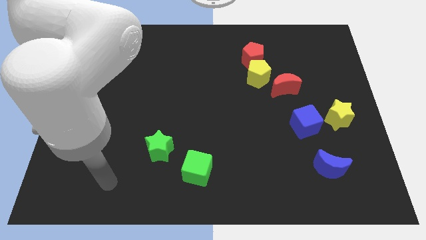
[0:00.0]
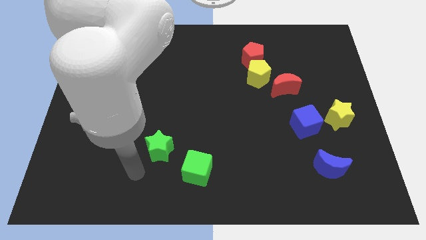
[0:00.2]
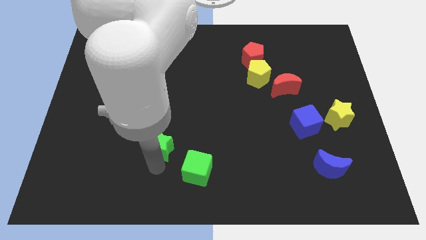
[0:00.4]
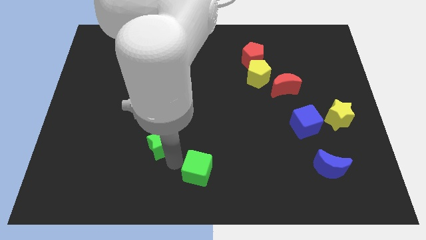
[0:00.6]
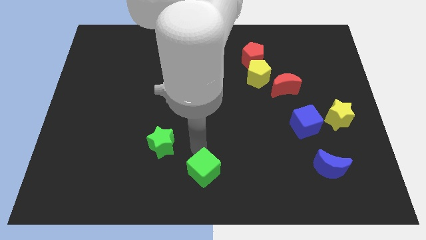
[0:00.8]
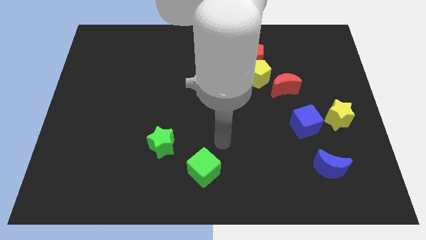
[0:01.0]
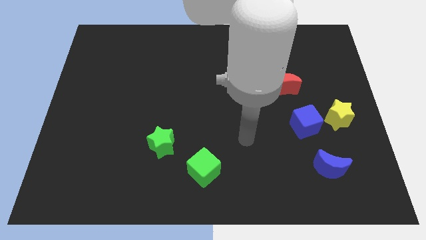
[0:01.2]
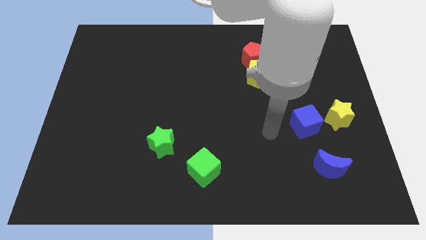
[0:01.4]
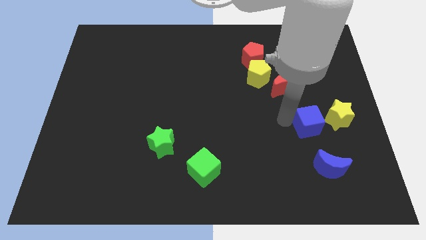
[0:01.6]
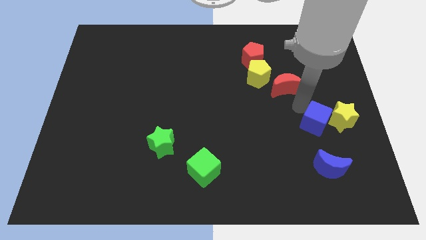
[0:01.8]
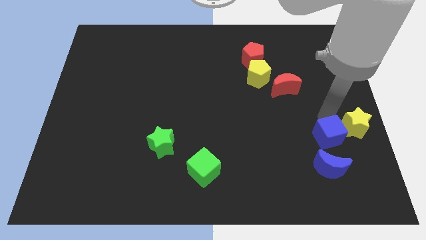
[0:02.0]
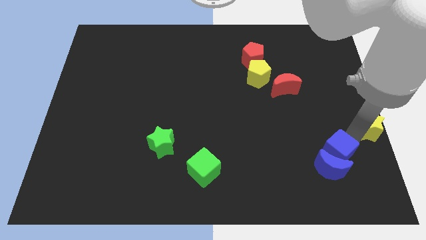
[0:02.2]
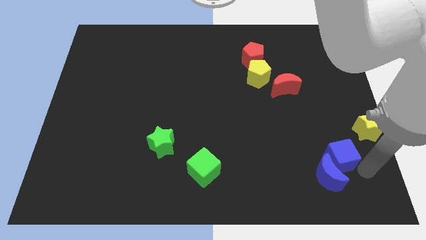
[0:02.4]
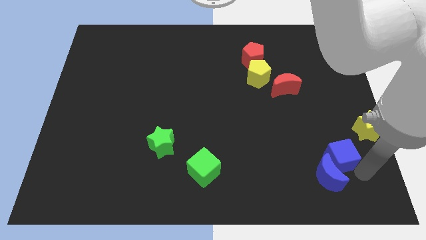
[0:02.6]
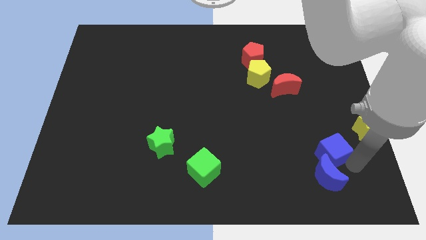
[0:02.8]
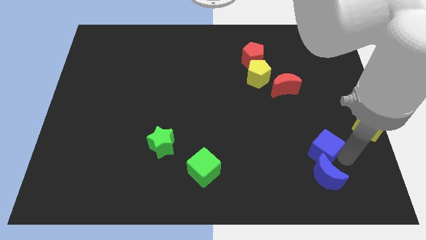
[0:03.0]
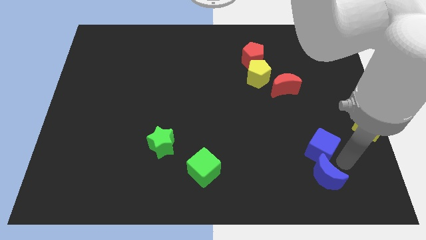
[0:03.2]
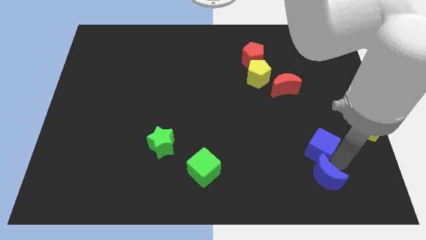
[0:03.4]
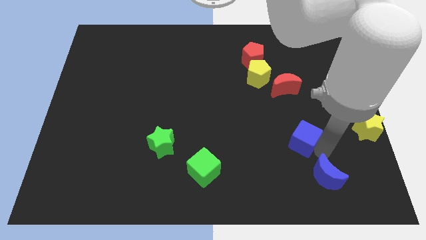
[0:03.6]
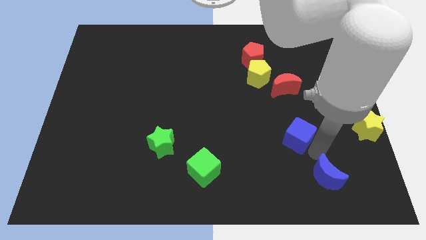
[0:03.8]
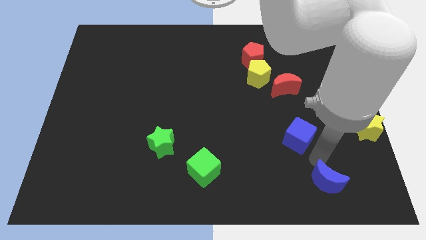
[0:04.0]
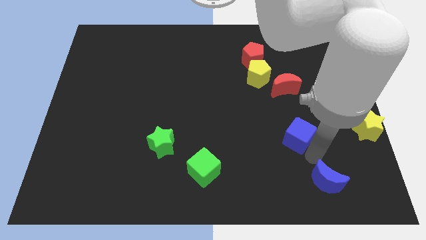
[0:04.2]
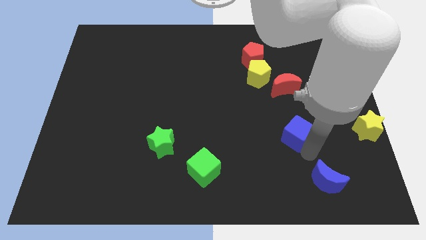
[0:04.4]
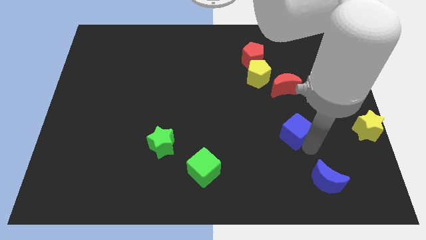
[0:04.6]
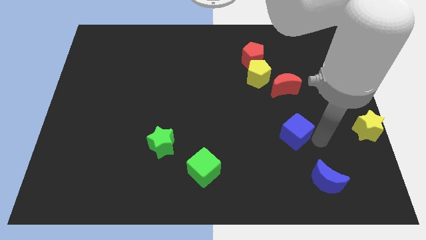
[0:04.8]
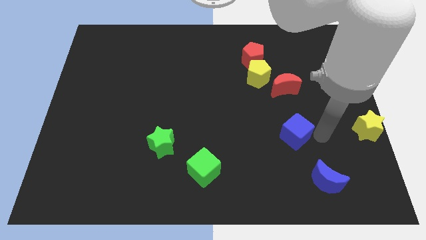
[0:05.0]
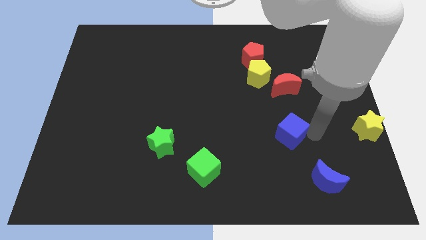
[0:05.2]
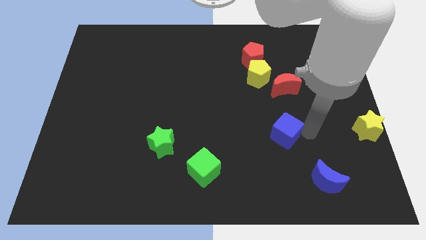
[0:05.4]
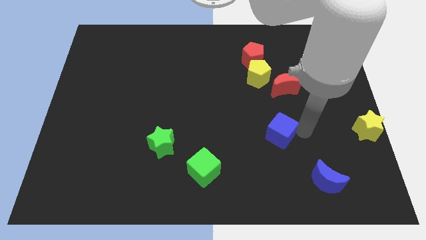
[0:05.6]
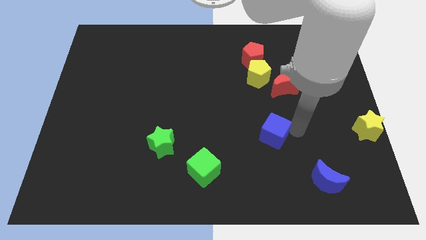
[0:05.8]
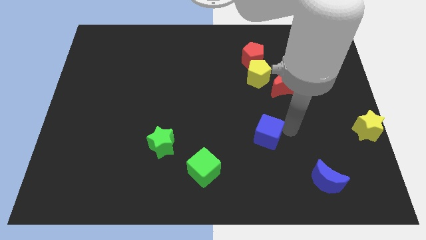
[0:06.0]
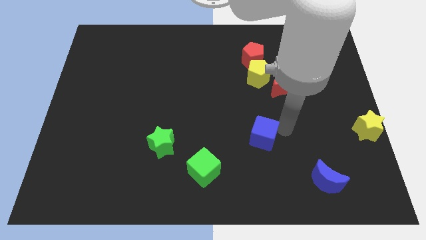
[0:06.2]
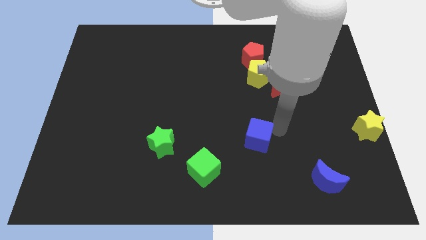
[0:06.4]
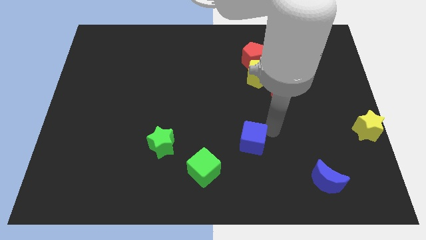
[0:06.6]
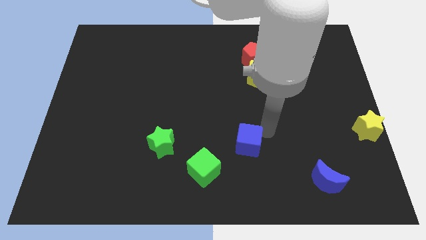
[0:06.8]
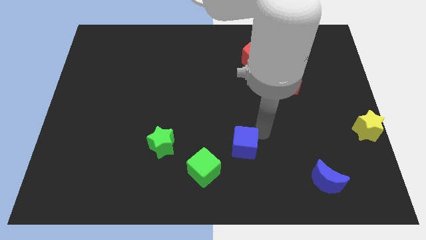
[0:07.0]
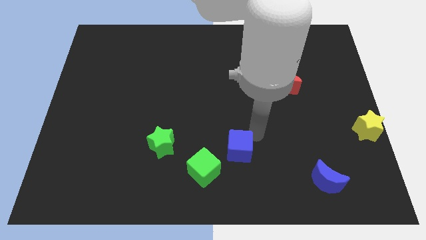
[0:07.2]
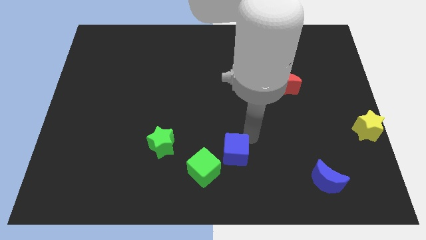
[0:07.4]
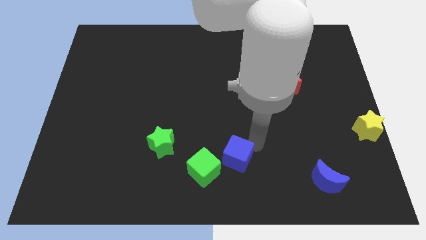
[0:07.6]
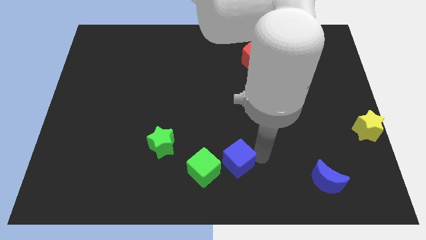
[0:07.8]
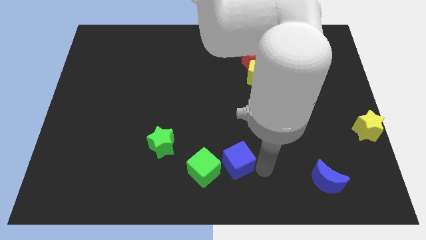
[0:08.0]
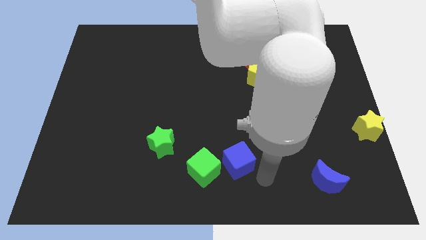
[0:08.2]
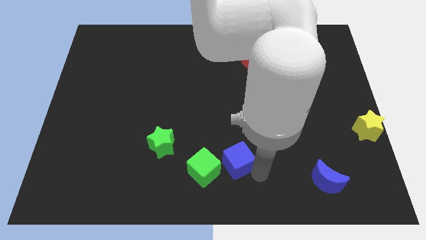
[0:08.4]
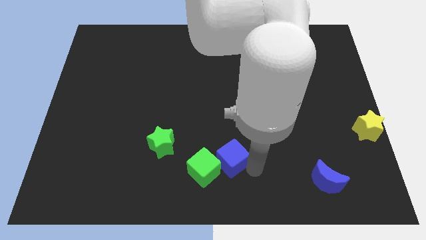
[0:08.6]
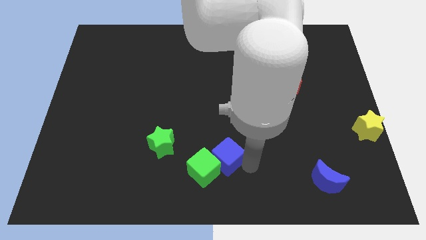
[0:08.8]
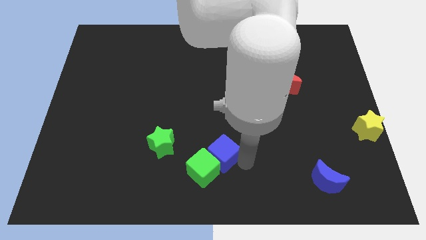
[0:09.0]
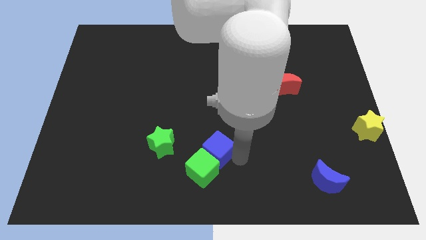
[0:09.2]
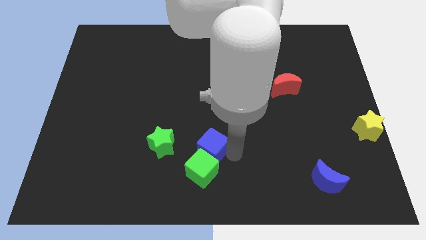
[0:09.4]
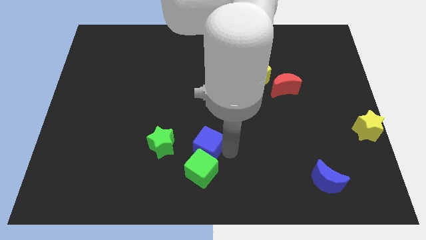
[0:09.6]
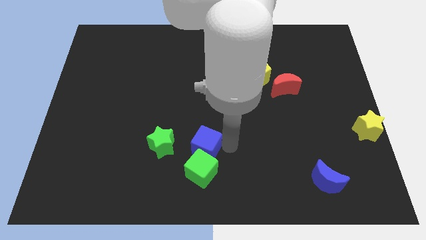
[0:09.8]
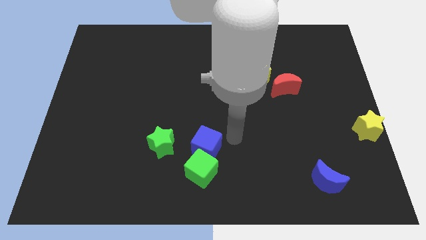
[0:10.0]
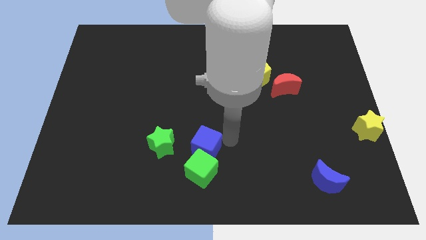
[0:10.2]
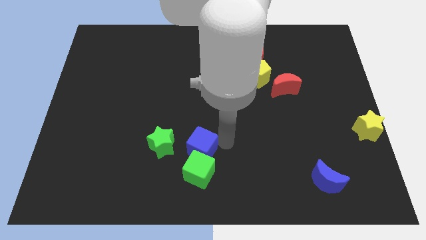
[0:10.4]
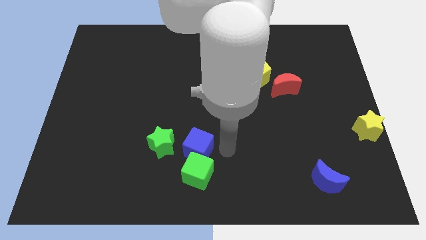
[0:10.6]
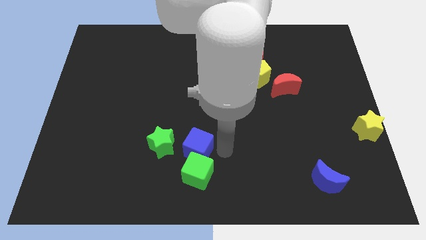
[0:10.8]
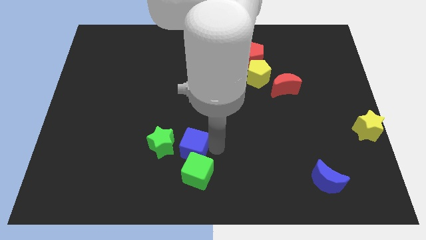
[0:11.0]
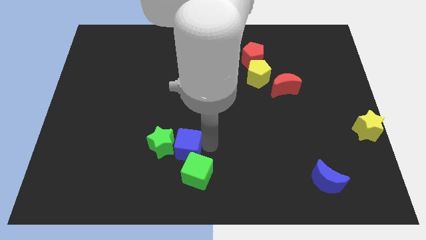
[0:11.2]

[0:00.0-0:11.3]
move the blue cube to the green star

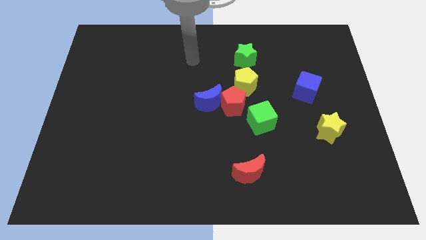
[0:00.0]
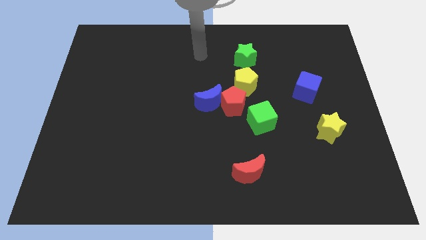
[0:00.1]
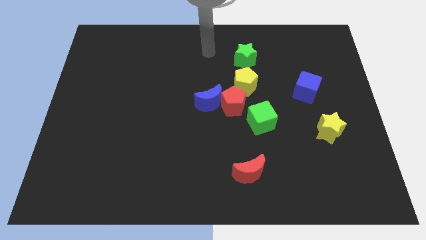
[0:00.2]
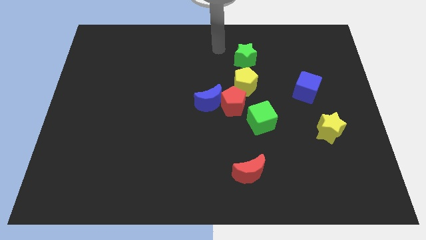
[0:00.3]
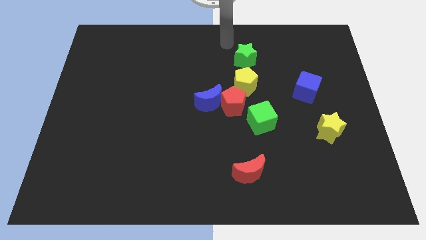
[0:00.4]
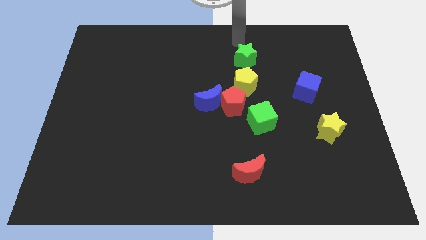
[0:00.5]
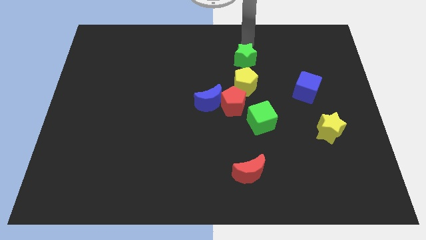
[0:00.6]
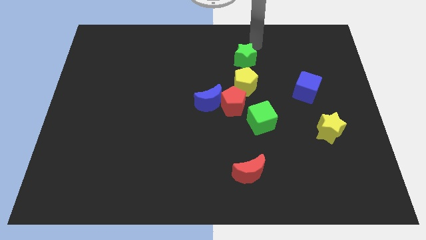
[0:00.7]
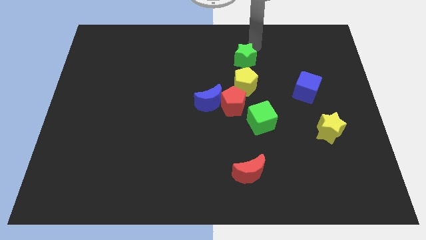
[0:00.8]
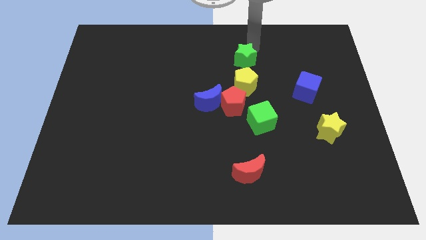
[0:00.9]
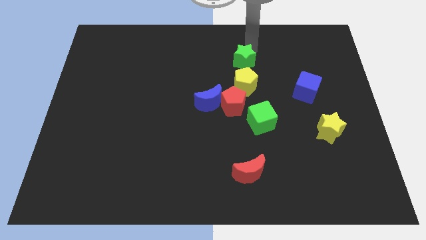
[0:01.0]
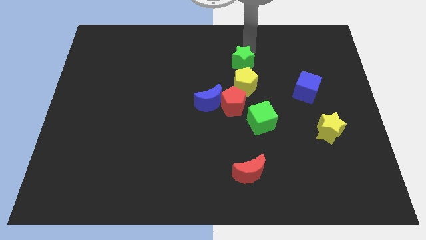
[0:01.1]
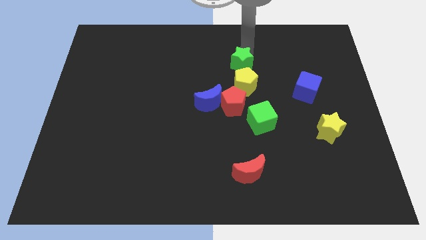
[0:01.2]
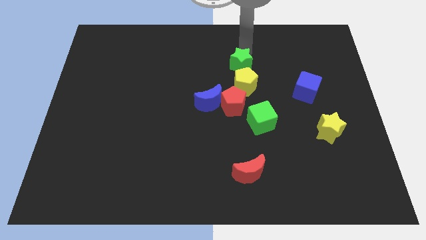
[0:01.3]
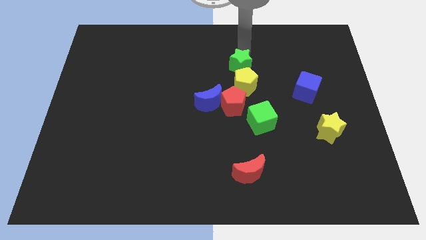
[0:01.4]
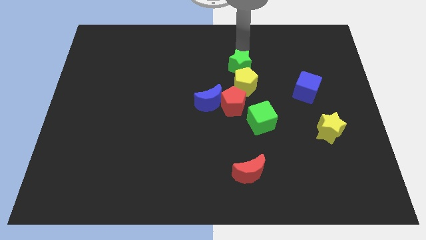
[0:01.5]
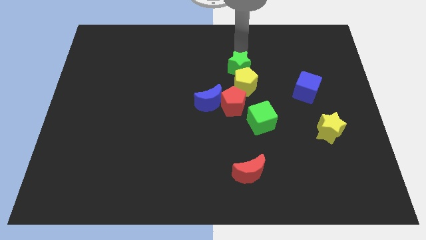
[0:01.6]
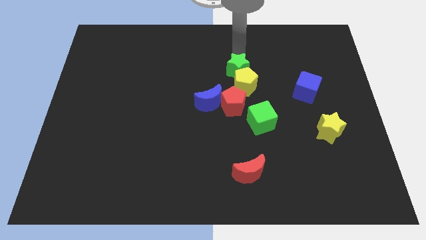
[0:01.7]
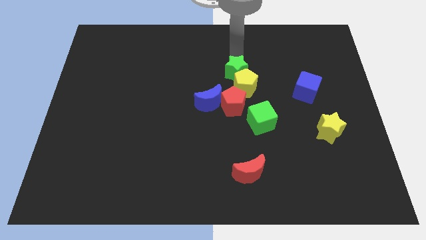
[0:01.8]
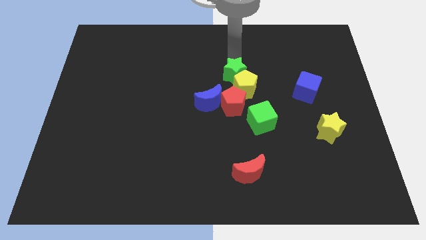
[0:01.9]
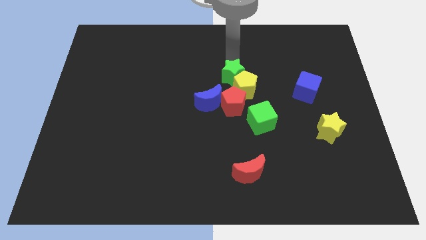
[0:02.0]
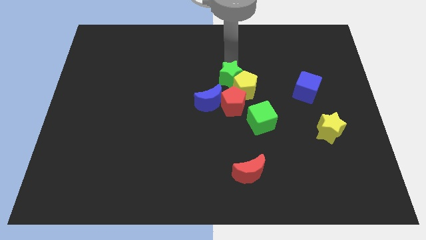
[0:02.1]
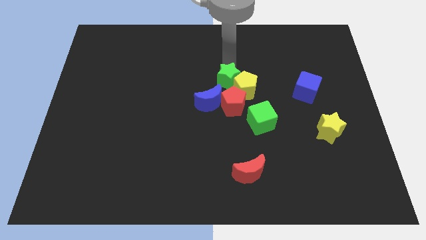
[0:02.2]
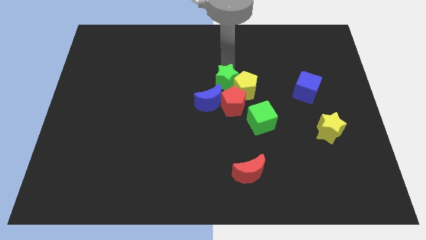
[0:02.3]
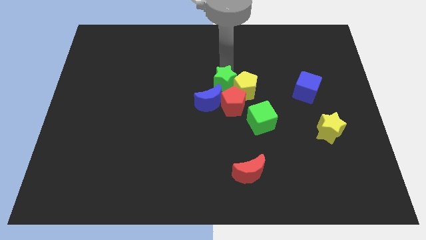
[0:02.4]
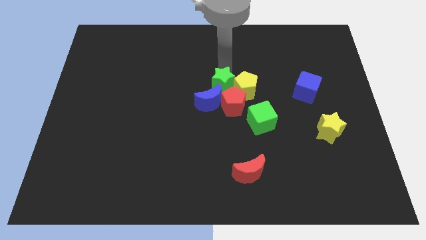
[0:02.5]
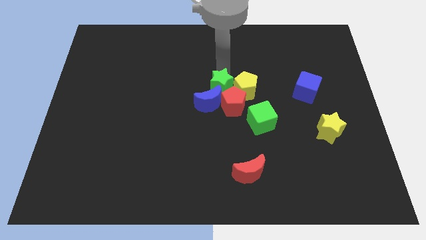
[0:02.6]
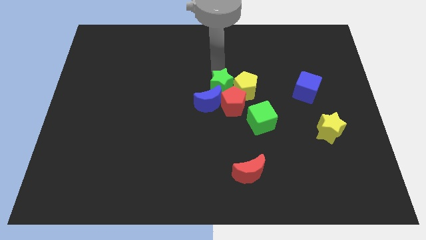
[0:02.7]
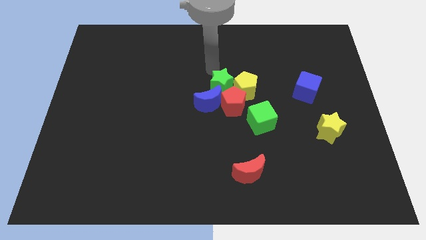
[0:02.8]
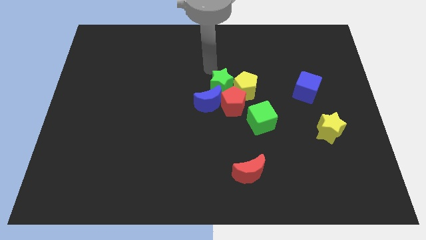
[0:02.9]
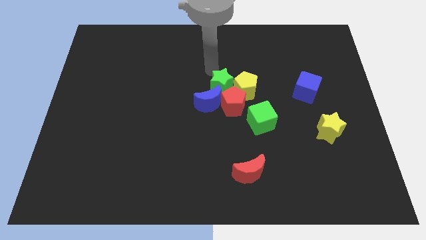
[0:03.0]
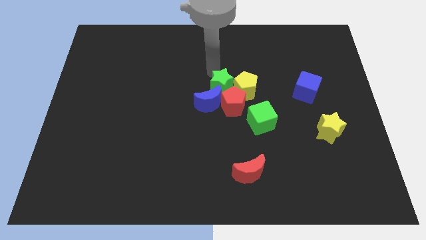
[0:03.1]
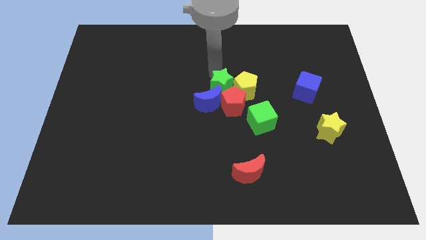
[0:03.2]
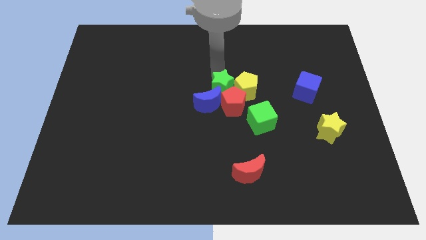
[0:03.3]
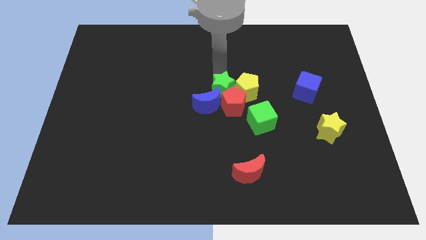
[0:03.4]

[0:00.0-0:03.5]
push the green star close to the red pentagon
